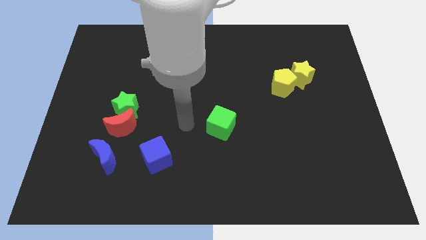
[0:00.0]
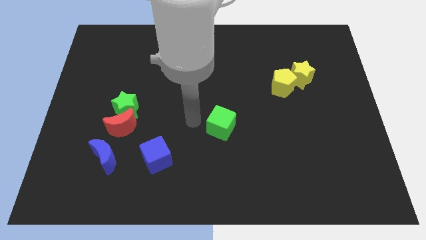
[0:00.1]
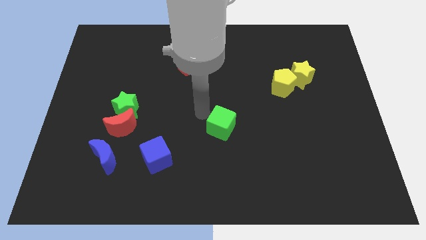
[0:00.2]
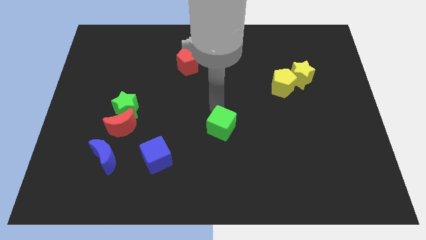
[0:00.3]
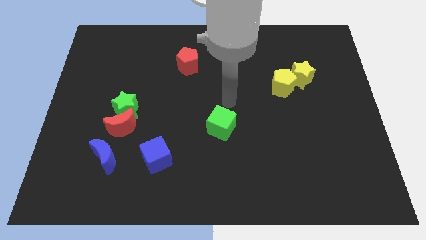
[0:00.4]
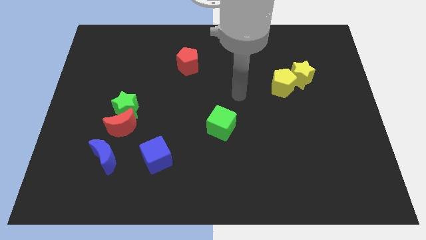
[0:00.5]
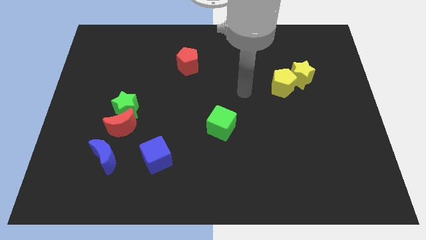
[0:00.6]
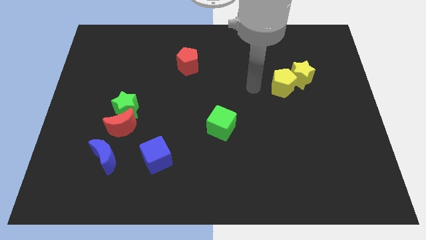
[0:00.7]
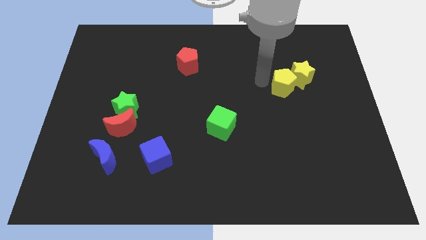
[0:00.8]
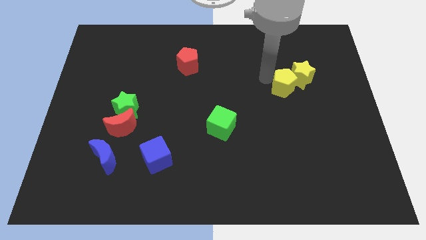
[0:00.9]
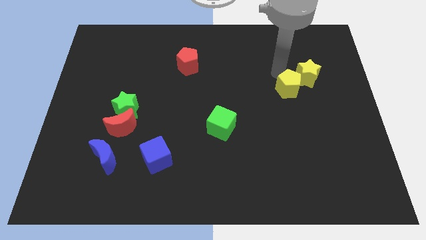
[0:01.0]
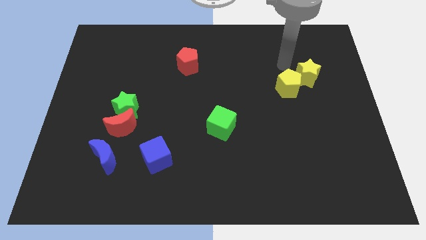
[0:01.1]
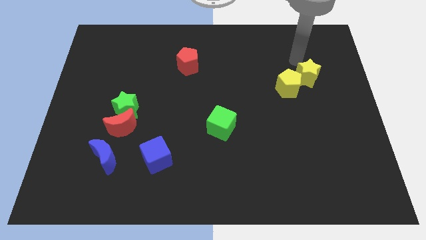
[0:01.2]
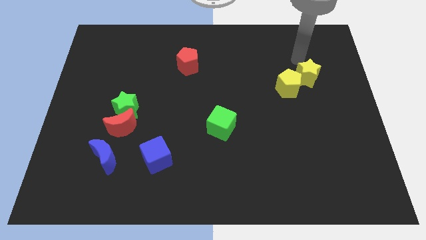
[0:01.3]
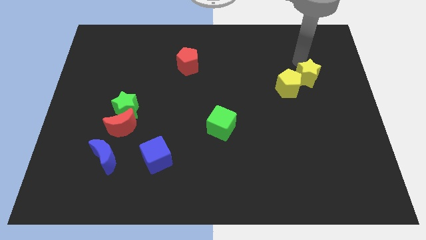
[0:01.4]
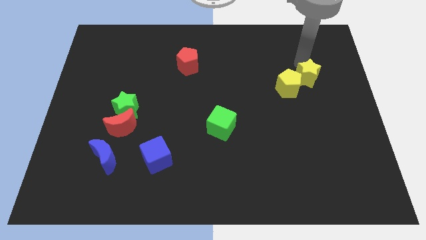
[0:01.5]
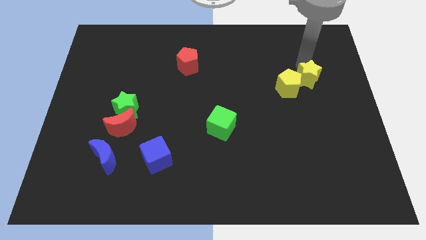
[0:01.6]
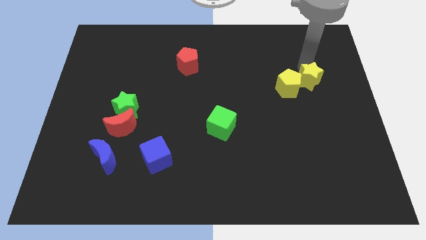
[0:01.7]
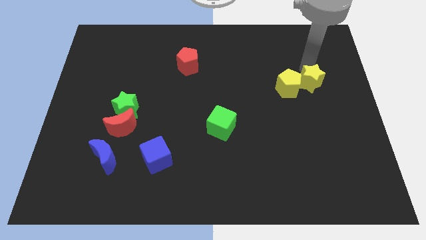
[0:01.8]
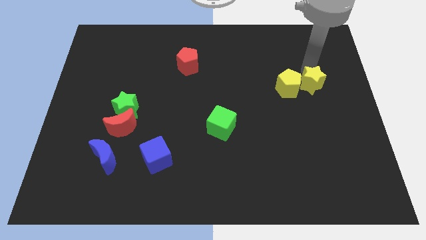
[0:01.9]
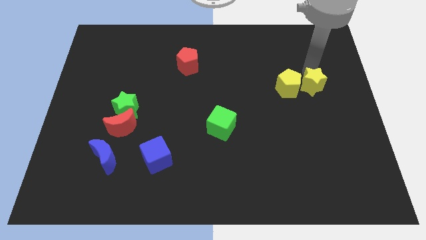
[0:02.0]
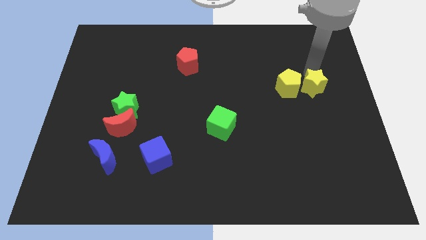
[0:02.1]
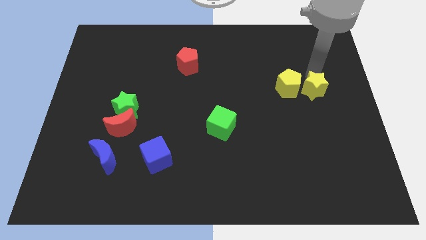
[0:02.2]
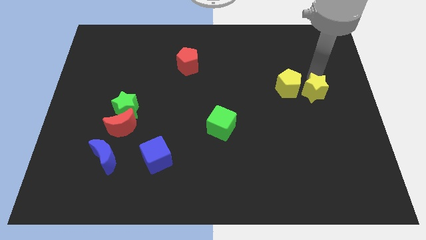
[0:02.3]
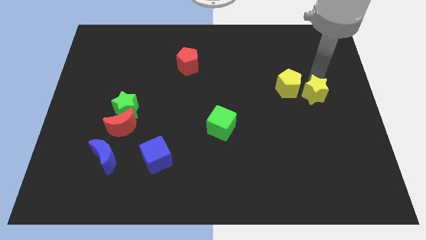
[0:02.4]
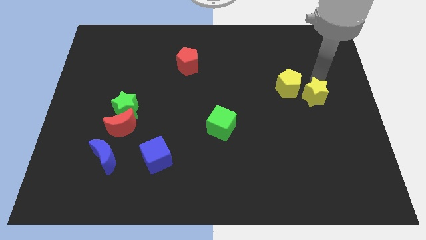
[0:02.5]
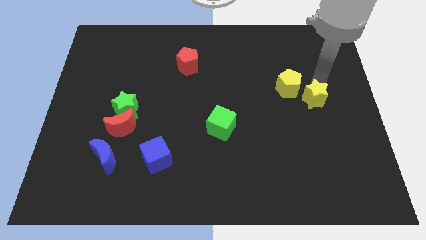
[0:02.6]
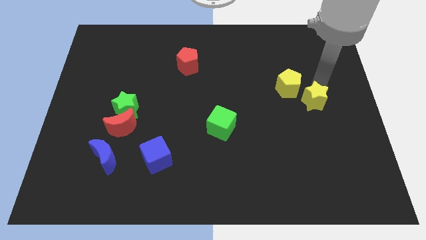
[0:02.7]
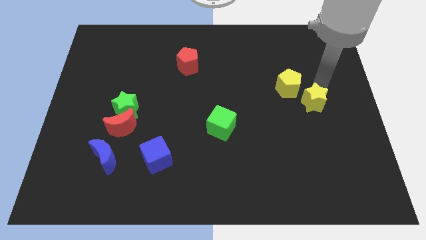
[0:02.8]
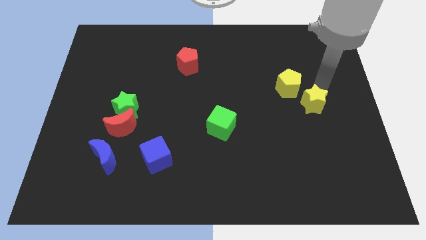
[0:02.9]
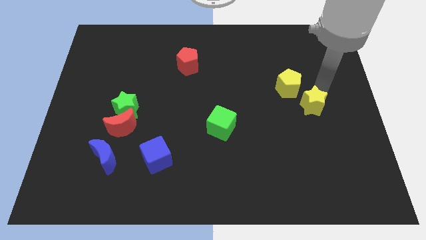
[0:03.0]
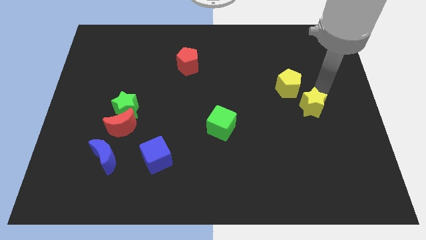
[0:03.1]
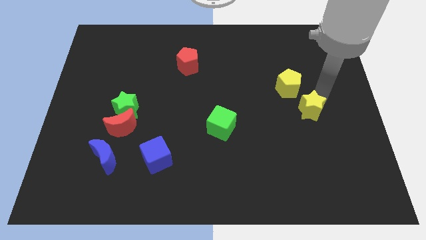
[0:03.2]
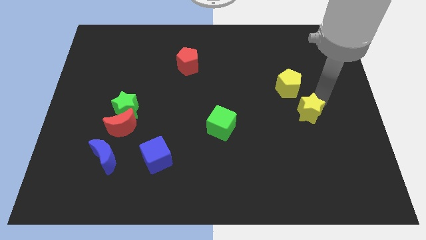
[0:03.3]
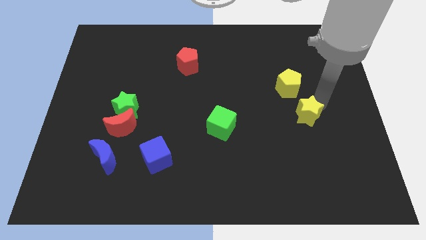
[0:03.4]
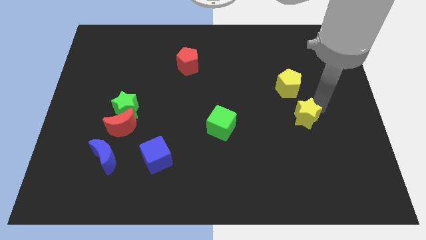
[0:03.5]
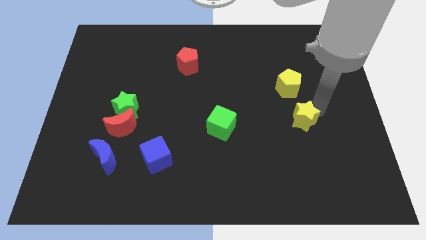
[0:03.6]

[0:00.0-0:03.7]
push the yellow star diagonally down and to the left a little

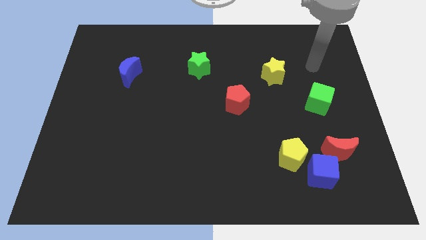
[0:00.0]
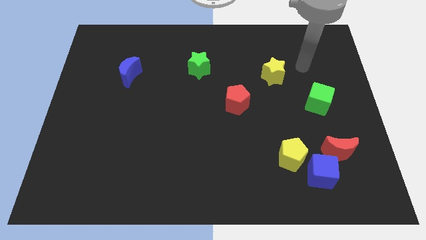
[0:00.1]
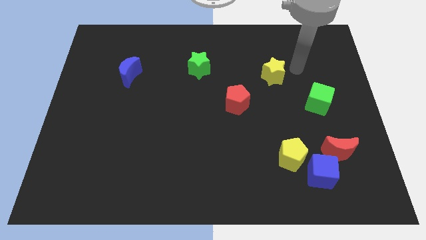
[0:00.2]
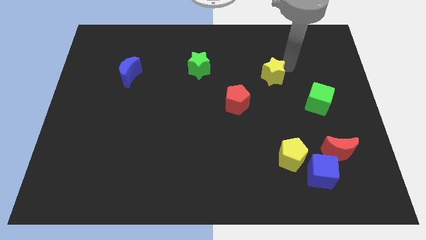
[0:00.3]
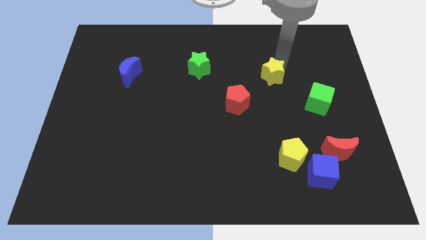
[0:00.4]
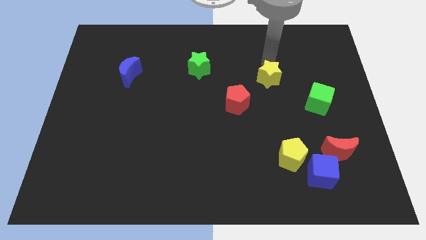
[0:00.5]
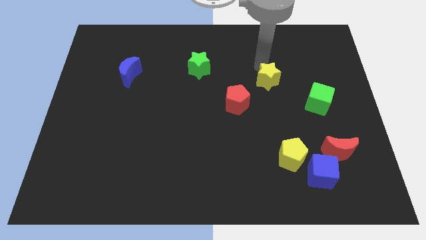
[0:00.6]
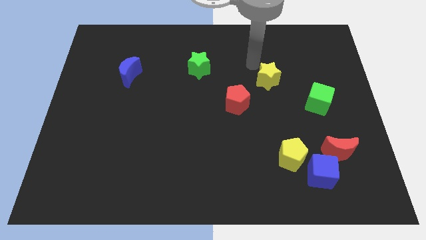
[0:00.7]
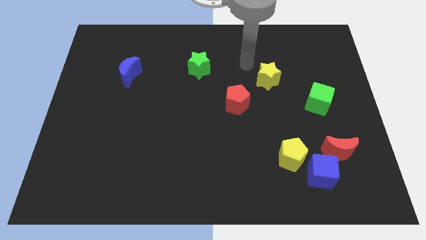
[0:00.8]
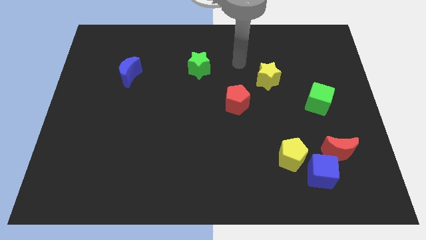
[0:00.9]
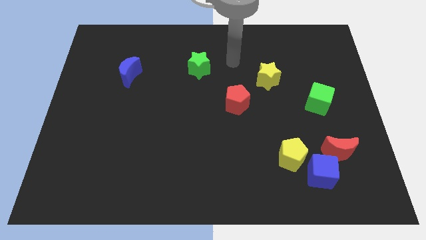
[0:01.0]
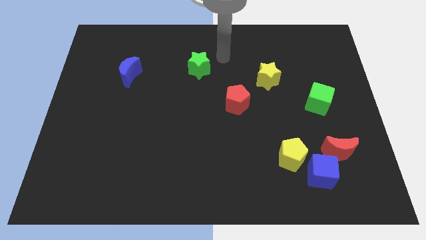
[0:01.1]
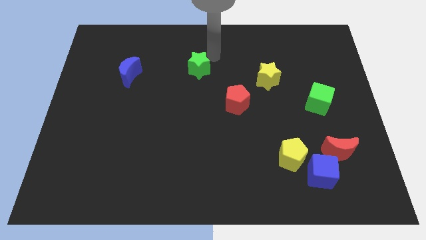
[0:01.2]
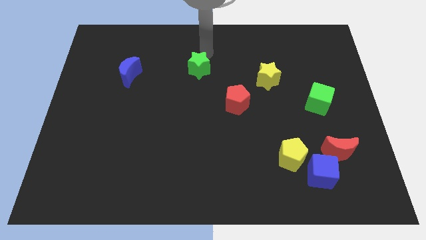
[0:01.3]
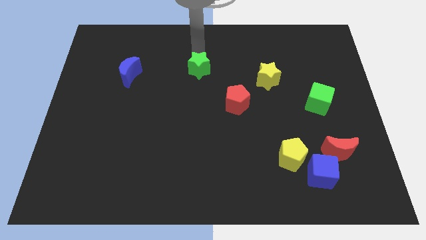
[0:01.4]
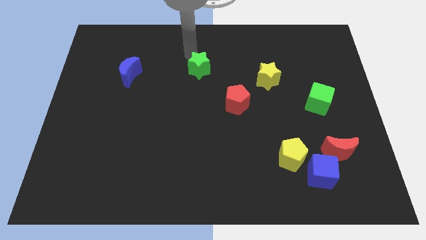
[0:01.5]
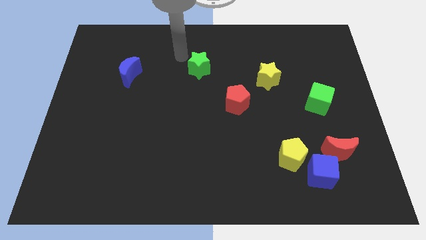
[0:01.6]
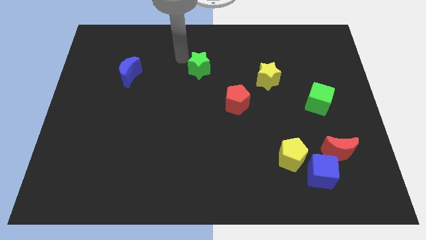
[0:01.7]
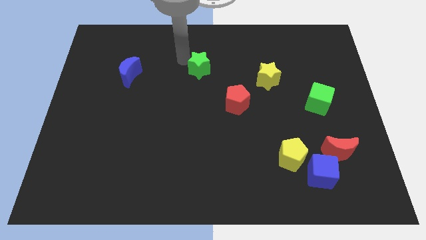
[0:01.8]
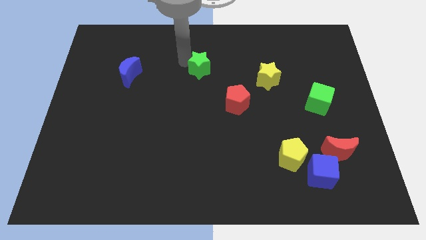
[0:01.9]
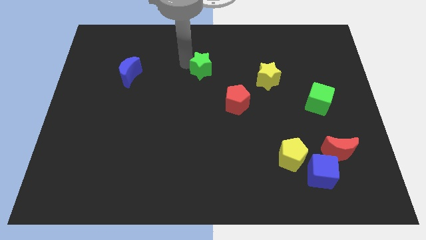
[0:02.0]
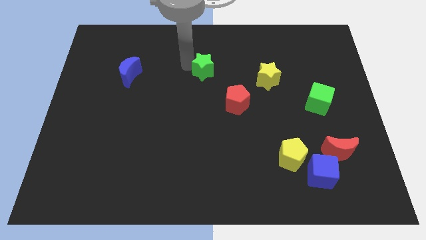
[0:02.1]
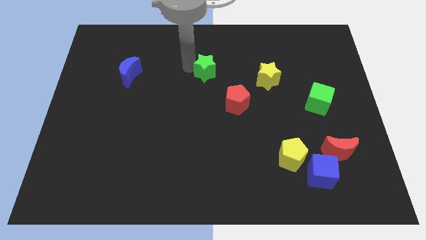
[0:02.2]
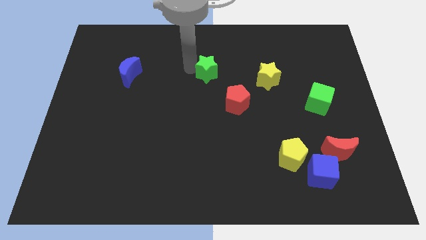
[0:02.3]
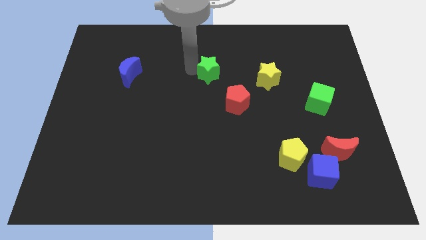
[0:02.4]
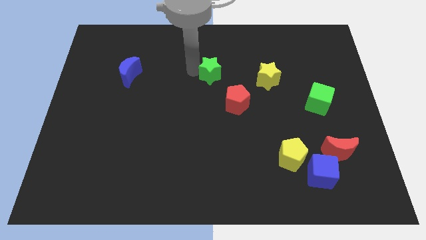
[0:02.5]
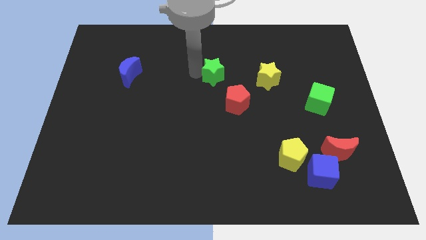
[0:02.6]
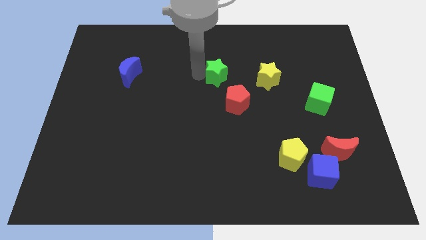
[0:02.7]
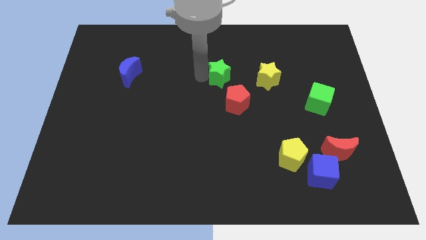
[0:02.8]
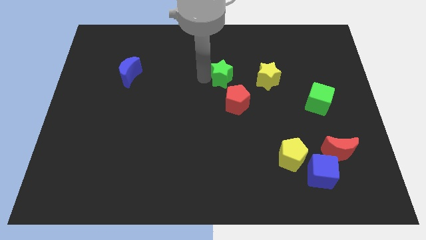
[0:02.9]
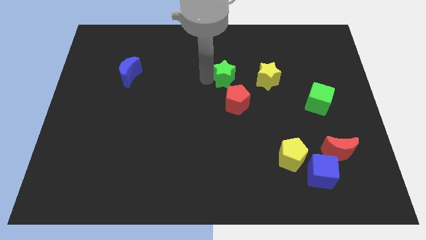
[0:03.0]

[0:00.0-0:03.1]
slightly push the green star down and then to the right

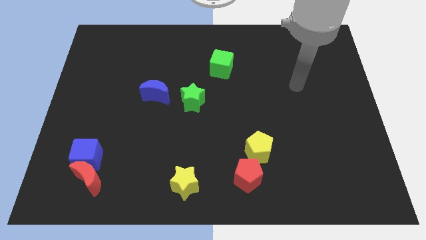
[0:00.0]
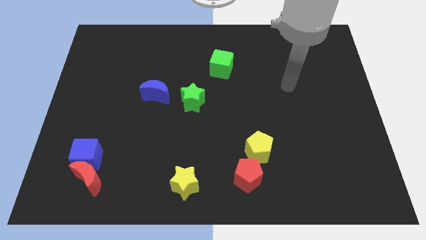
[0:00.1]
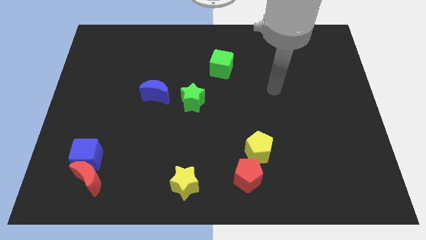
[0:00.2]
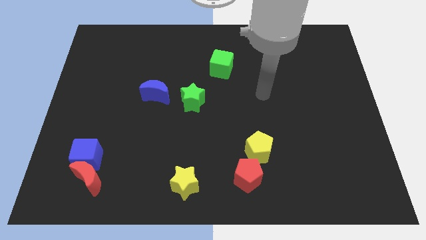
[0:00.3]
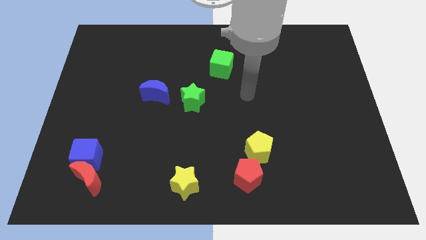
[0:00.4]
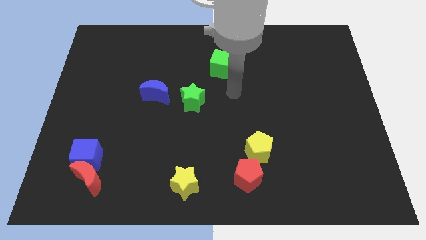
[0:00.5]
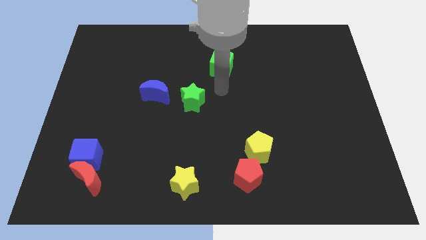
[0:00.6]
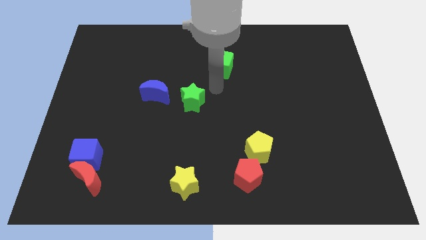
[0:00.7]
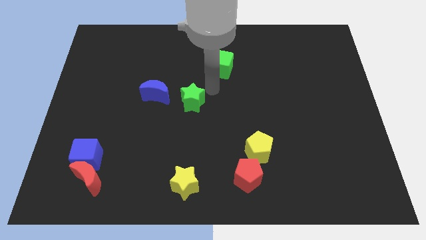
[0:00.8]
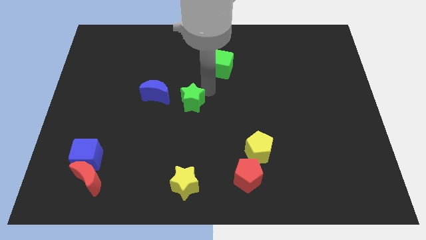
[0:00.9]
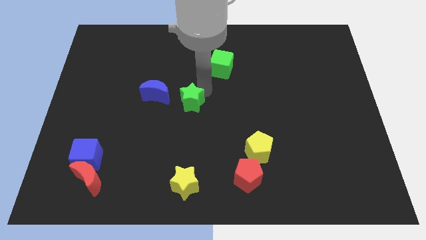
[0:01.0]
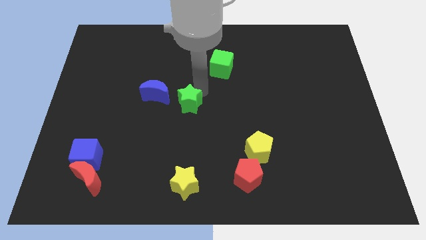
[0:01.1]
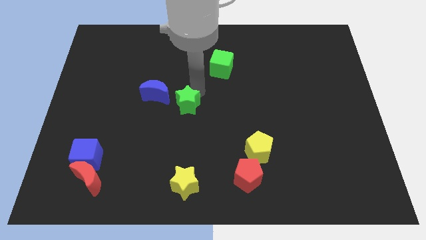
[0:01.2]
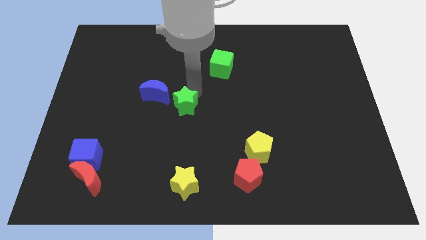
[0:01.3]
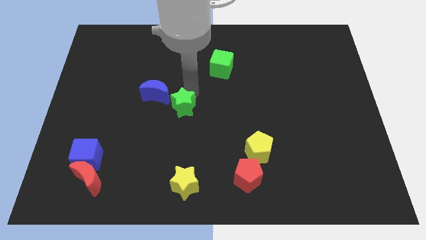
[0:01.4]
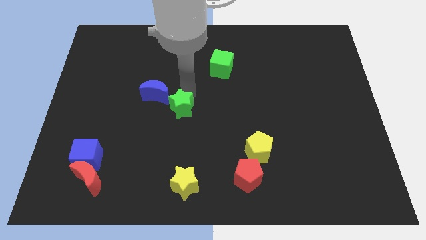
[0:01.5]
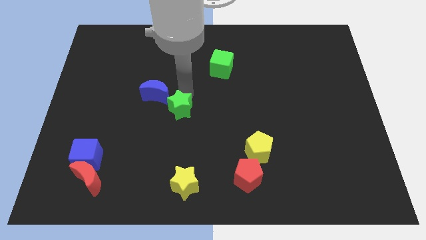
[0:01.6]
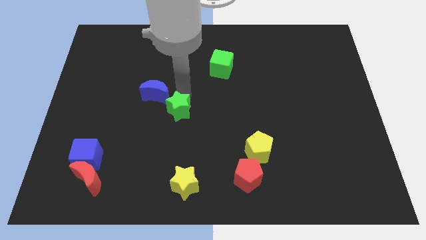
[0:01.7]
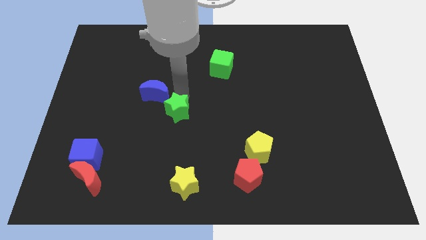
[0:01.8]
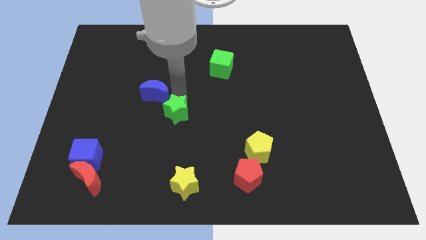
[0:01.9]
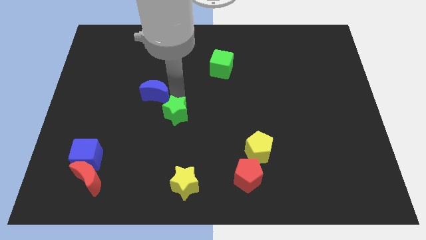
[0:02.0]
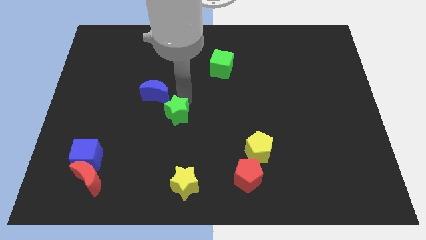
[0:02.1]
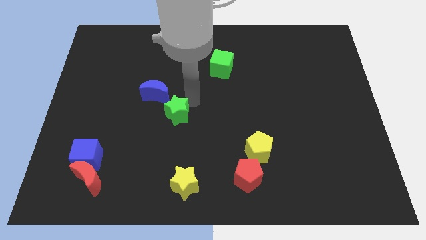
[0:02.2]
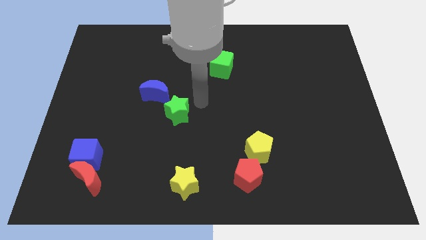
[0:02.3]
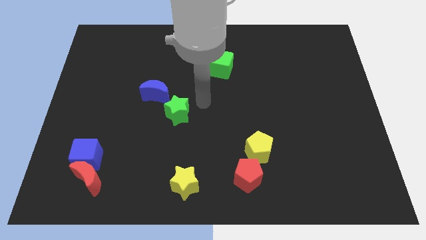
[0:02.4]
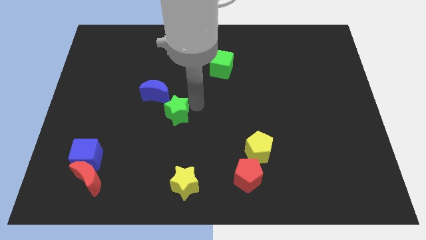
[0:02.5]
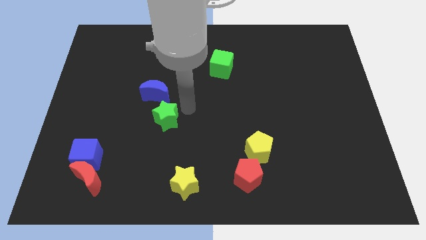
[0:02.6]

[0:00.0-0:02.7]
slightly move the green star down and left
